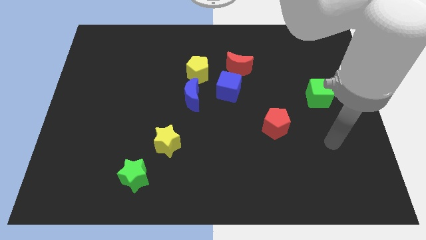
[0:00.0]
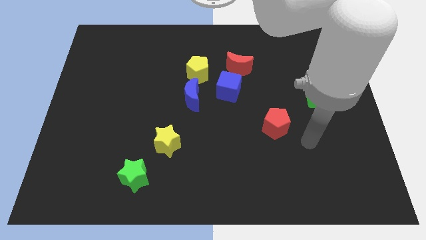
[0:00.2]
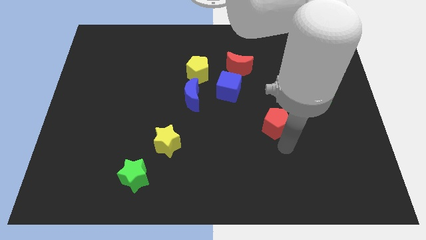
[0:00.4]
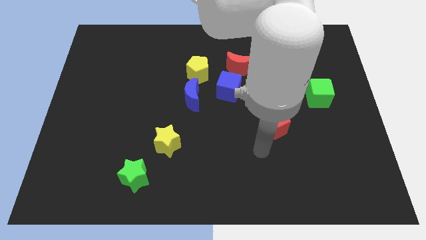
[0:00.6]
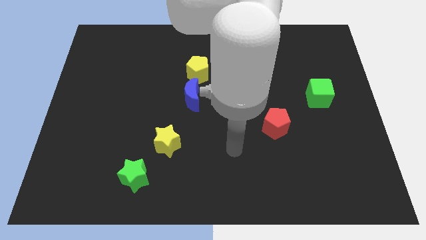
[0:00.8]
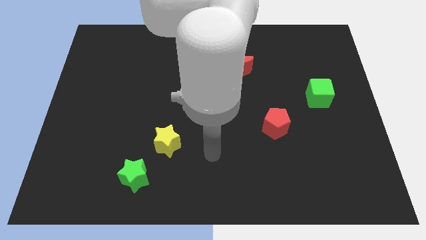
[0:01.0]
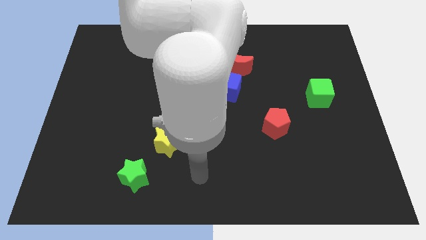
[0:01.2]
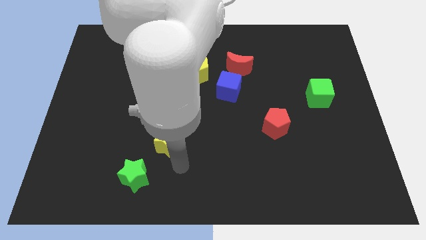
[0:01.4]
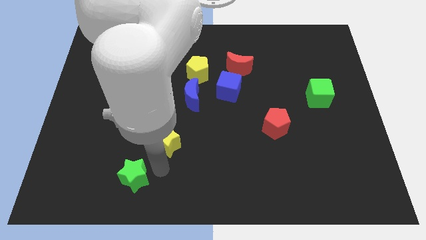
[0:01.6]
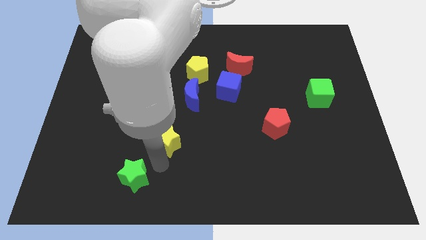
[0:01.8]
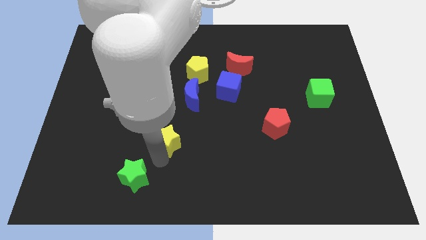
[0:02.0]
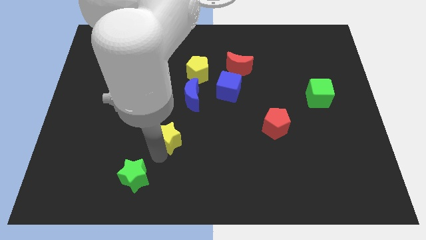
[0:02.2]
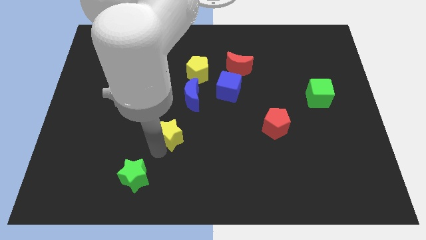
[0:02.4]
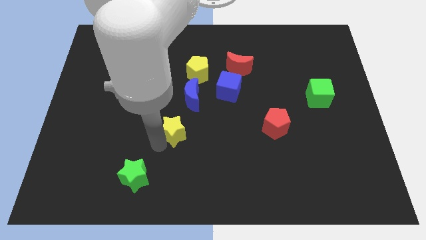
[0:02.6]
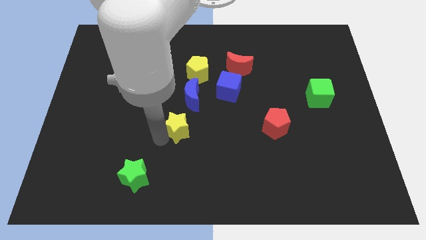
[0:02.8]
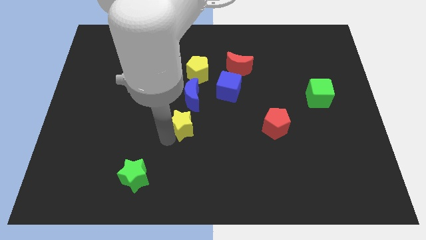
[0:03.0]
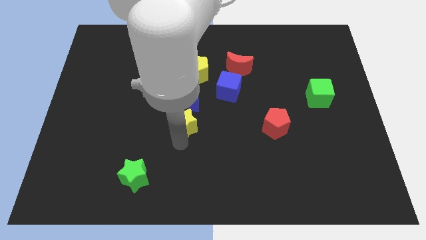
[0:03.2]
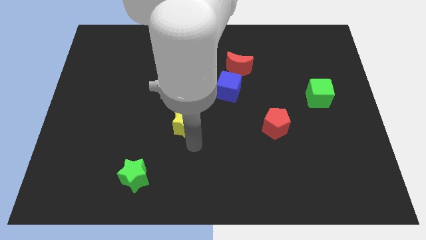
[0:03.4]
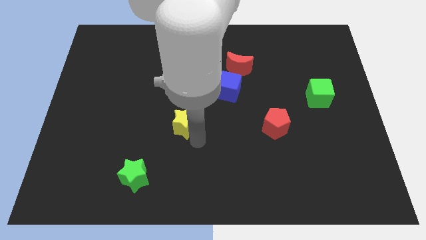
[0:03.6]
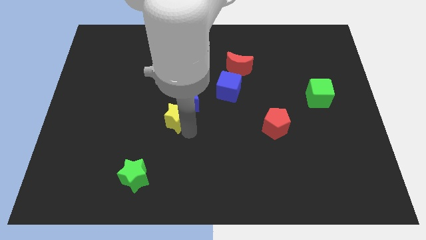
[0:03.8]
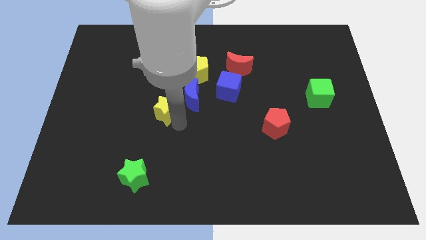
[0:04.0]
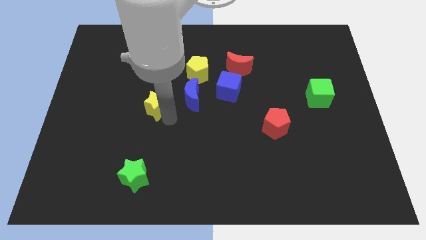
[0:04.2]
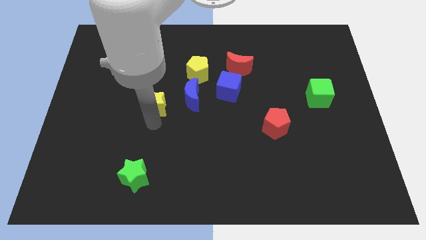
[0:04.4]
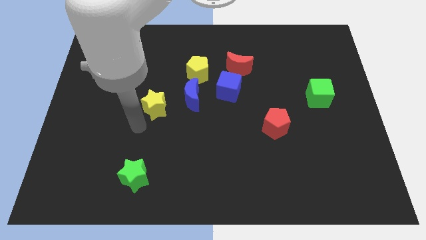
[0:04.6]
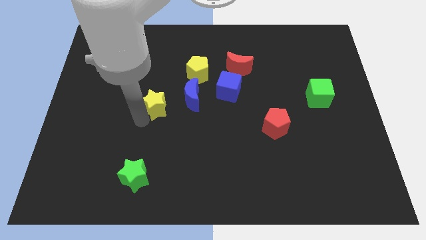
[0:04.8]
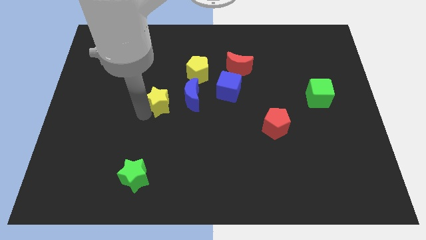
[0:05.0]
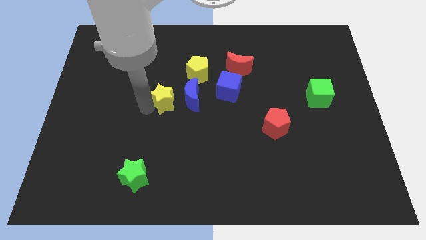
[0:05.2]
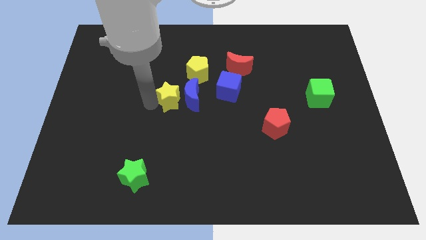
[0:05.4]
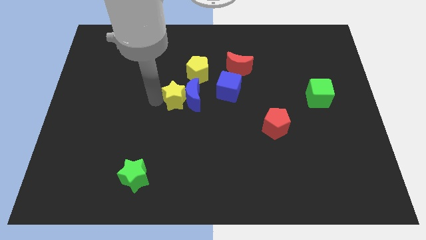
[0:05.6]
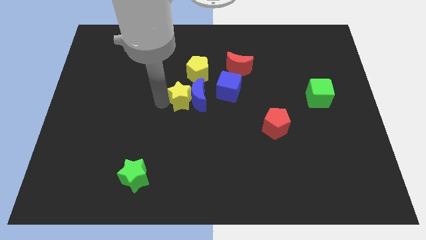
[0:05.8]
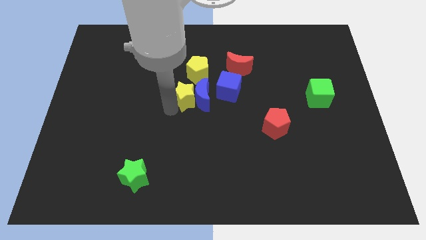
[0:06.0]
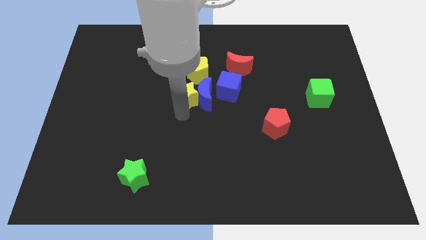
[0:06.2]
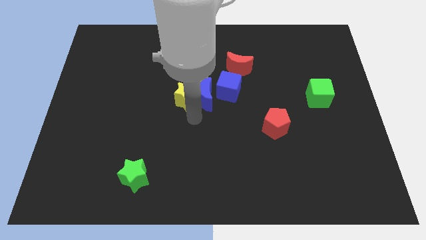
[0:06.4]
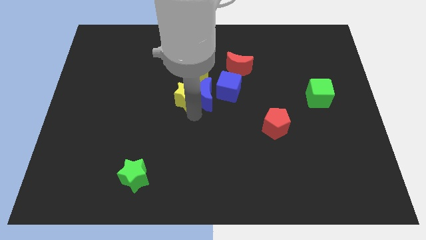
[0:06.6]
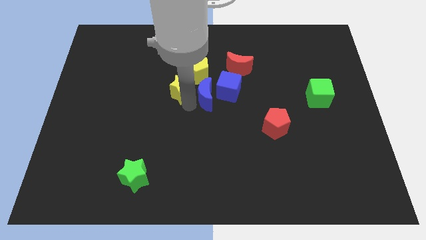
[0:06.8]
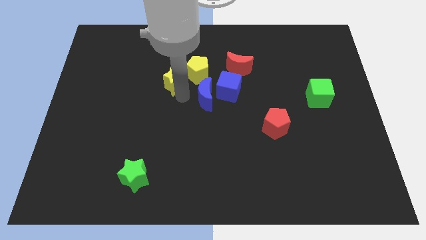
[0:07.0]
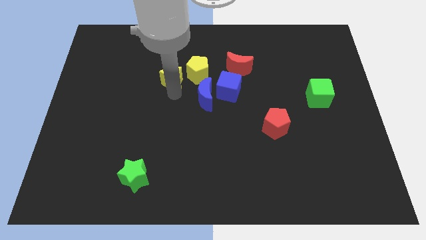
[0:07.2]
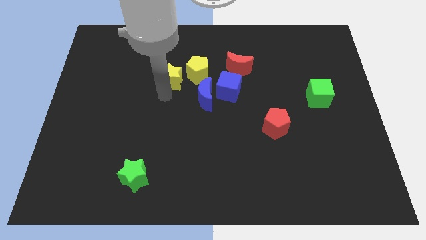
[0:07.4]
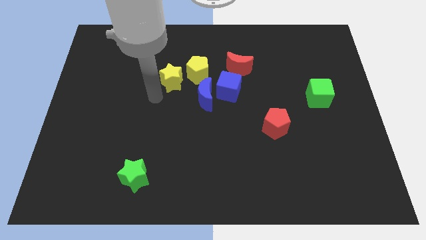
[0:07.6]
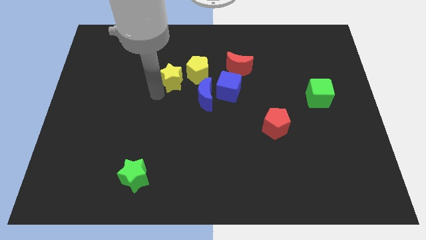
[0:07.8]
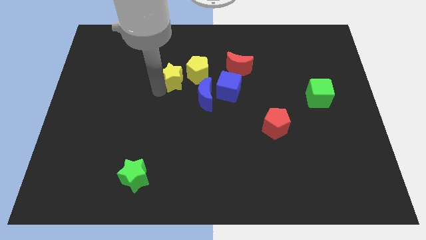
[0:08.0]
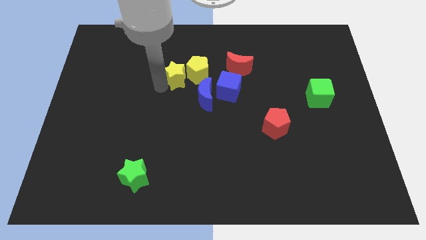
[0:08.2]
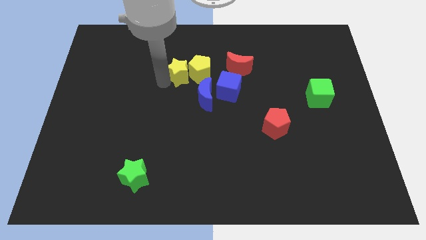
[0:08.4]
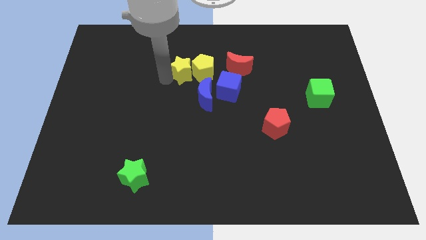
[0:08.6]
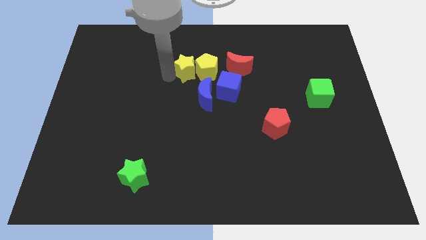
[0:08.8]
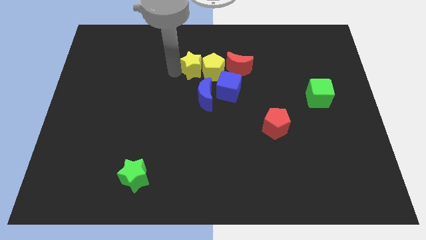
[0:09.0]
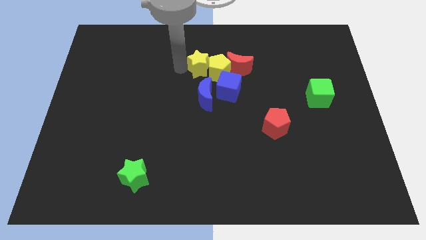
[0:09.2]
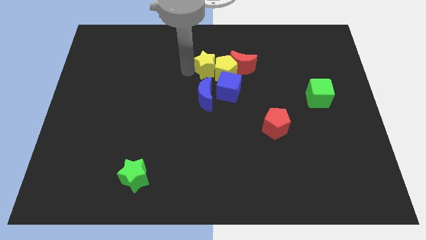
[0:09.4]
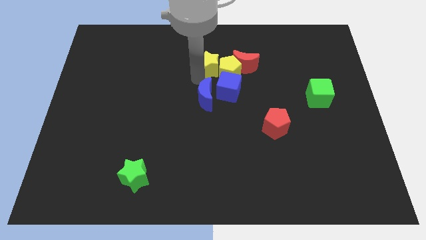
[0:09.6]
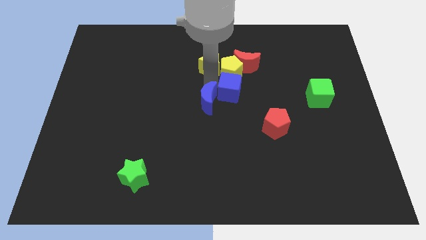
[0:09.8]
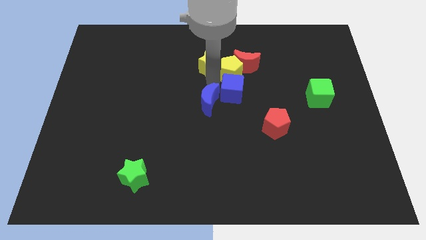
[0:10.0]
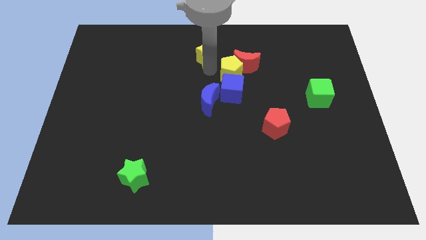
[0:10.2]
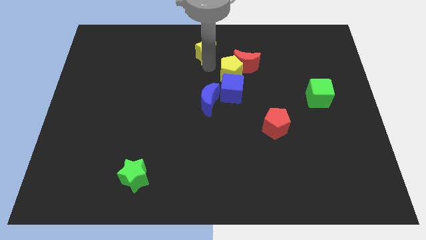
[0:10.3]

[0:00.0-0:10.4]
move the yellow star to the top side

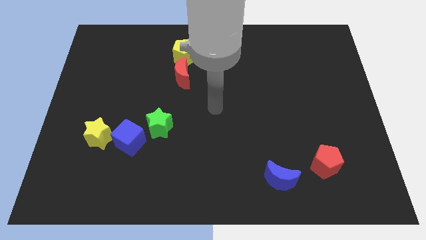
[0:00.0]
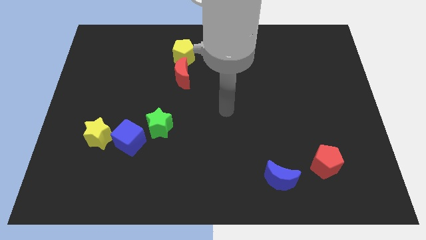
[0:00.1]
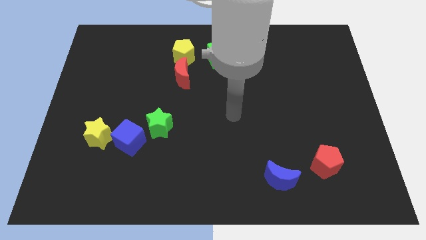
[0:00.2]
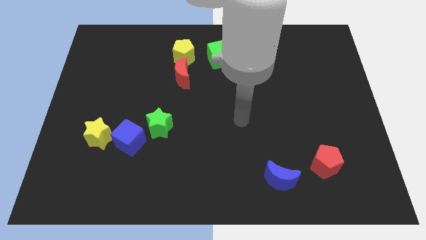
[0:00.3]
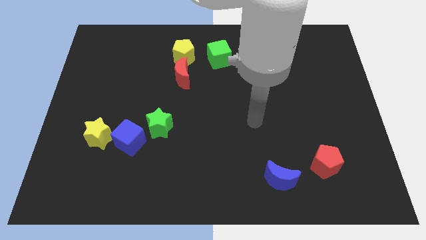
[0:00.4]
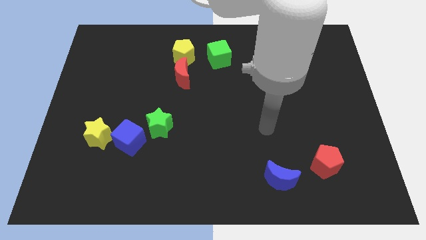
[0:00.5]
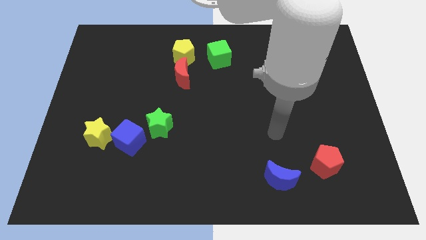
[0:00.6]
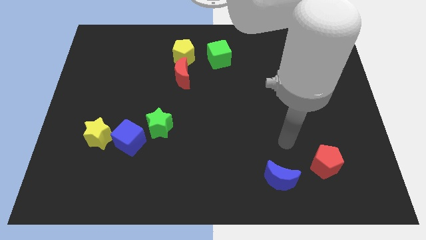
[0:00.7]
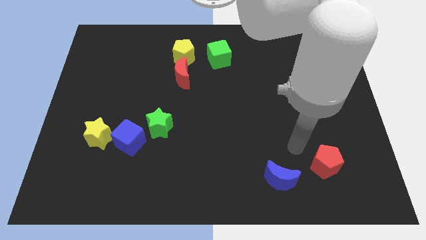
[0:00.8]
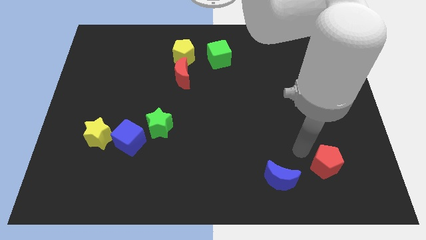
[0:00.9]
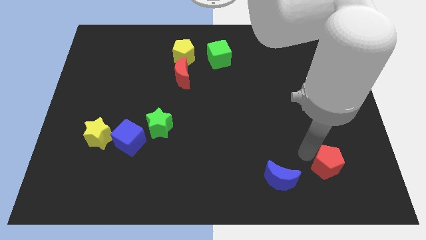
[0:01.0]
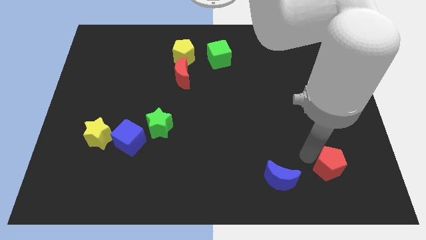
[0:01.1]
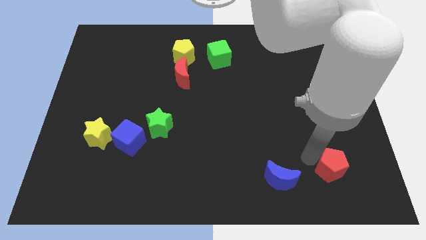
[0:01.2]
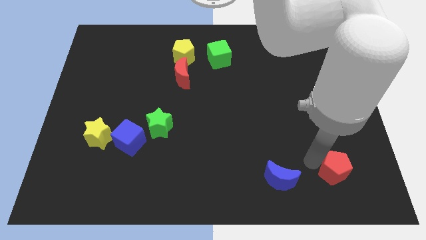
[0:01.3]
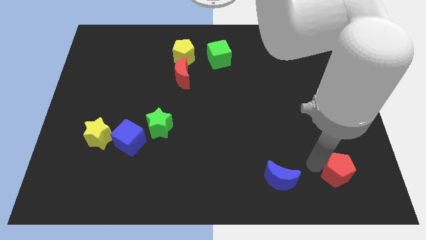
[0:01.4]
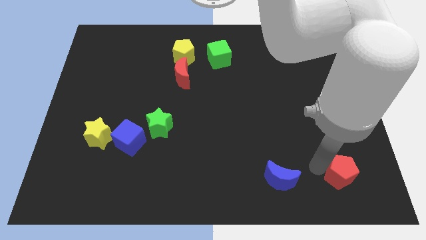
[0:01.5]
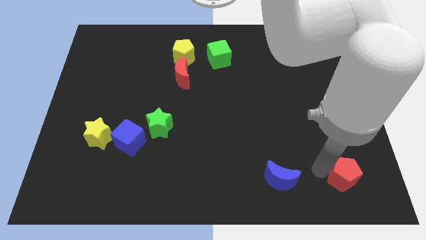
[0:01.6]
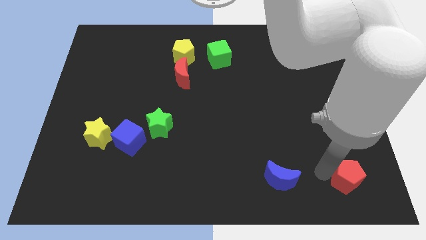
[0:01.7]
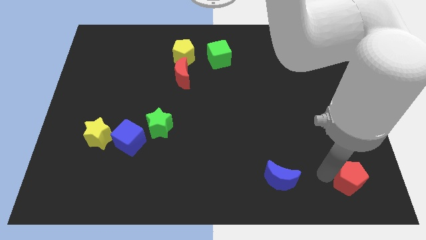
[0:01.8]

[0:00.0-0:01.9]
slide the red pentagon to the lower right corner
